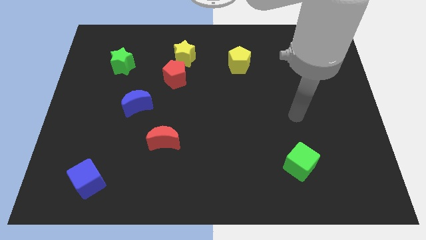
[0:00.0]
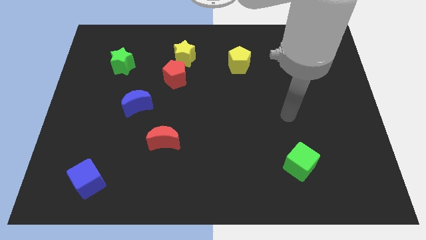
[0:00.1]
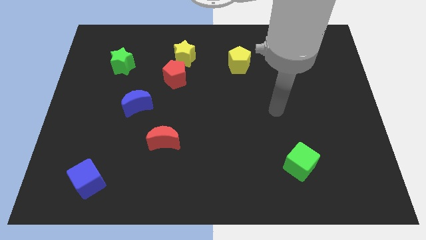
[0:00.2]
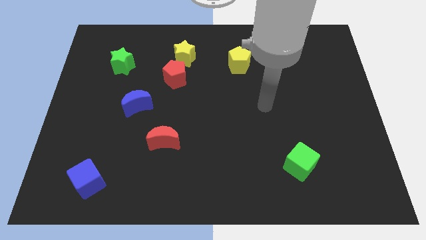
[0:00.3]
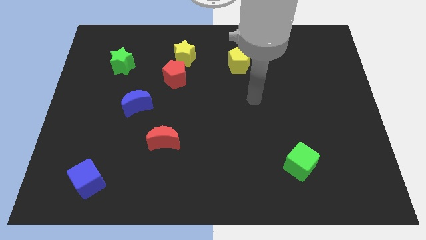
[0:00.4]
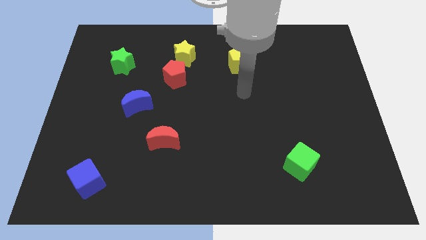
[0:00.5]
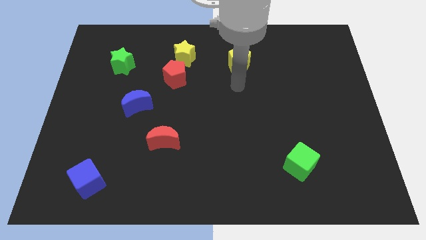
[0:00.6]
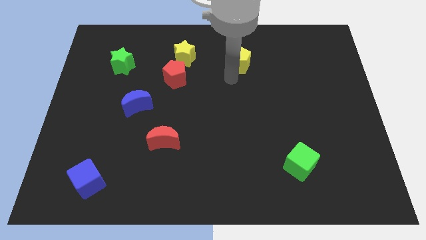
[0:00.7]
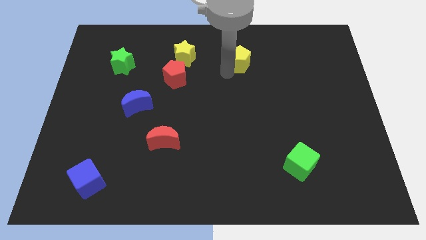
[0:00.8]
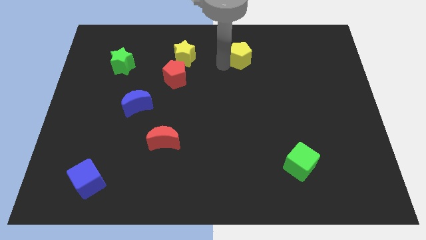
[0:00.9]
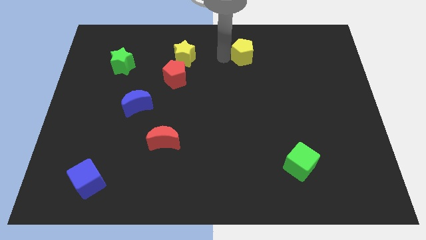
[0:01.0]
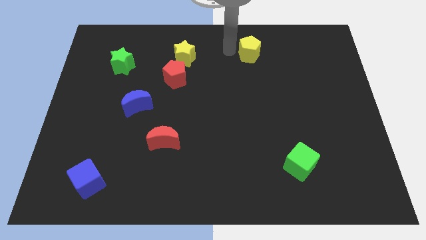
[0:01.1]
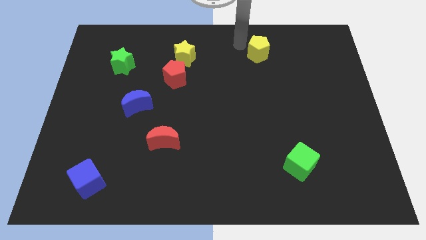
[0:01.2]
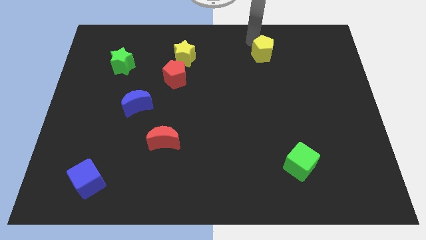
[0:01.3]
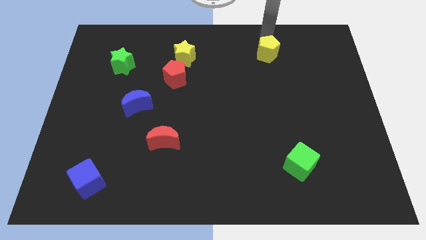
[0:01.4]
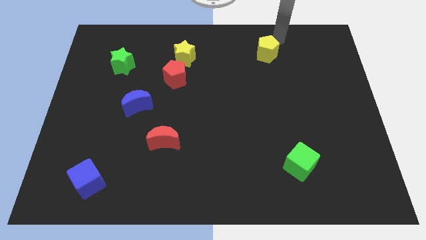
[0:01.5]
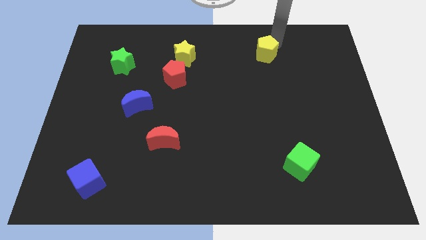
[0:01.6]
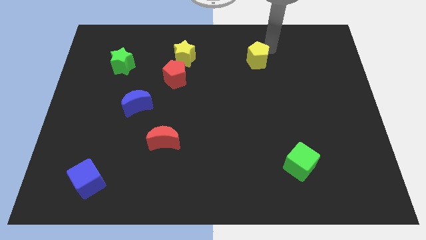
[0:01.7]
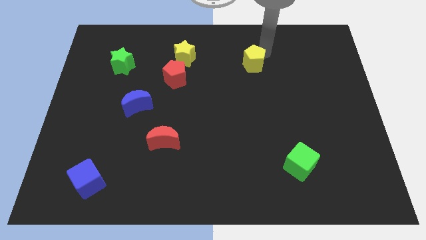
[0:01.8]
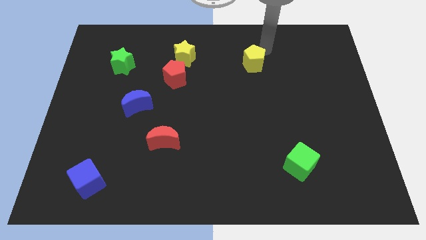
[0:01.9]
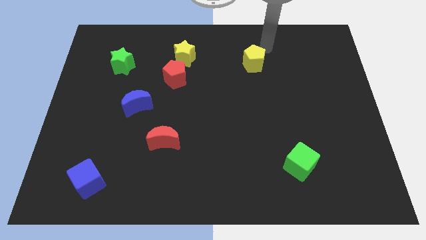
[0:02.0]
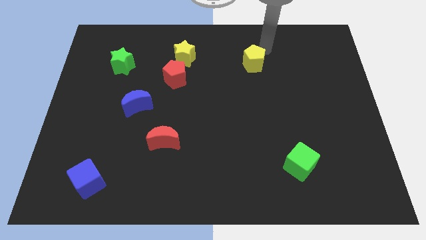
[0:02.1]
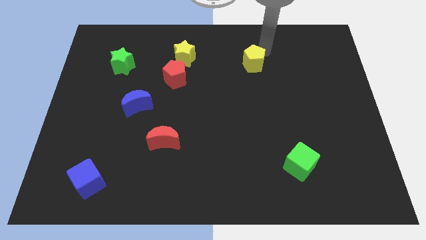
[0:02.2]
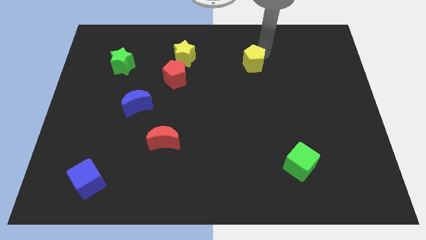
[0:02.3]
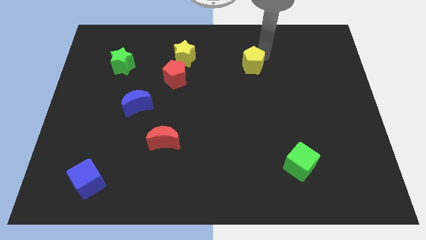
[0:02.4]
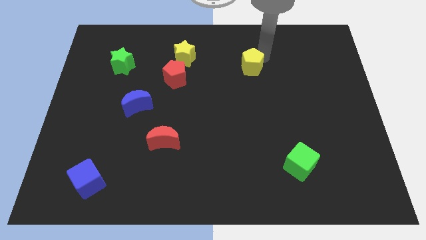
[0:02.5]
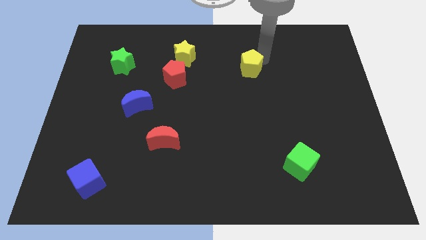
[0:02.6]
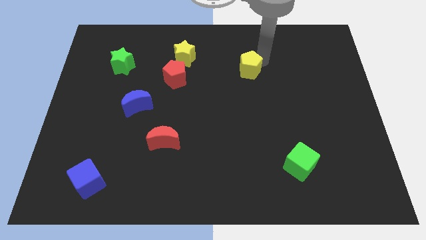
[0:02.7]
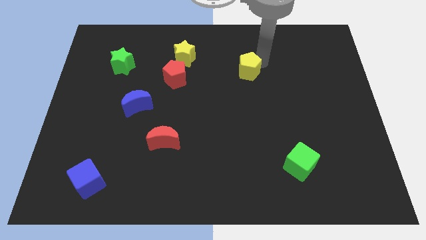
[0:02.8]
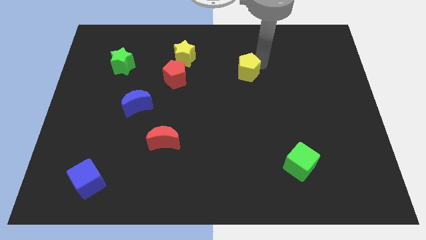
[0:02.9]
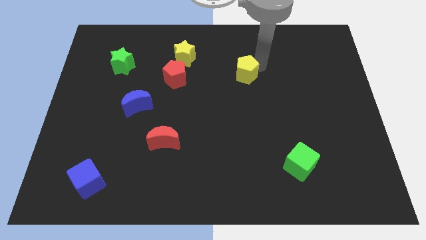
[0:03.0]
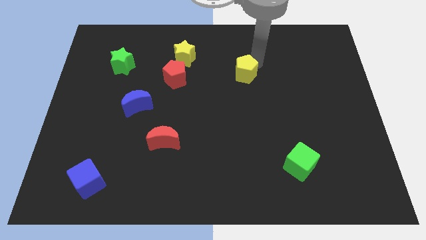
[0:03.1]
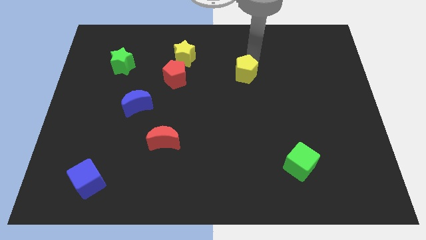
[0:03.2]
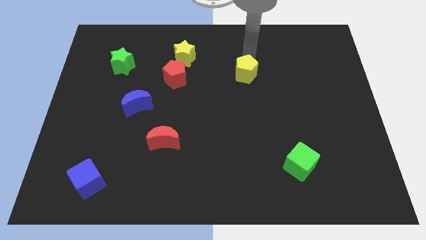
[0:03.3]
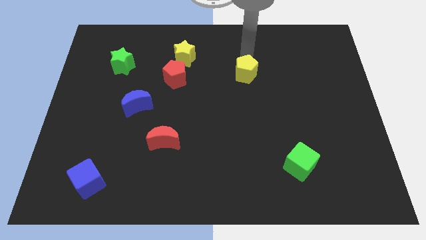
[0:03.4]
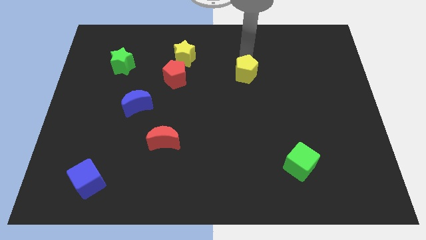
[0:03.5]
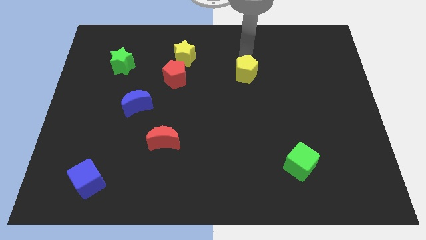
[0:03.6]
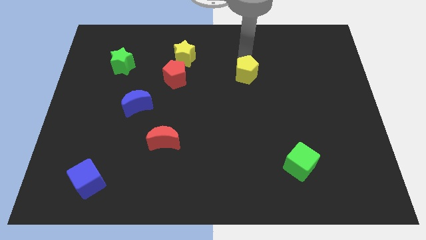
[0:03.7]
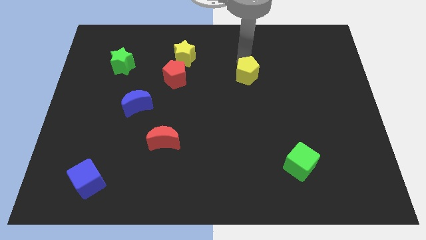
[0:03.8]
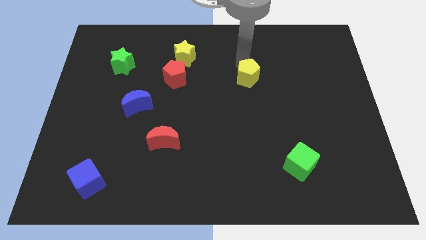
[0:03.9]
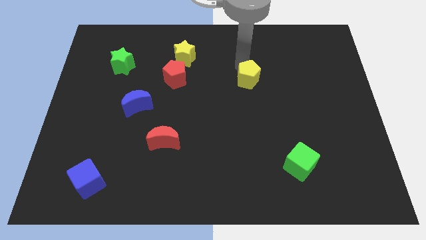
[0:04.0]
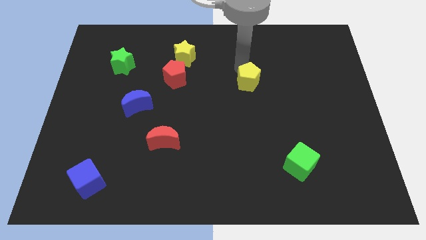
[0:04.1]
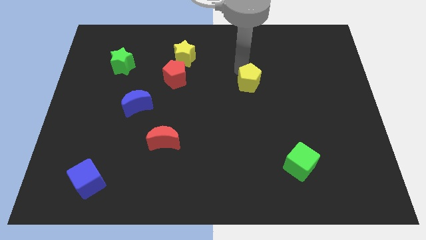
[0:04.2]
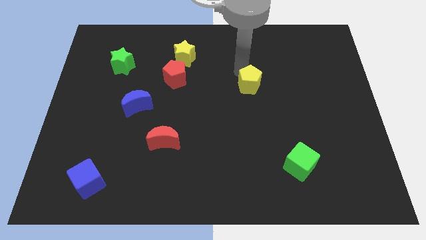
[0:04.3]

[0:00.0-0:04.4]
slightly push the yellow pentagon down

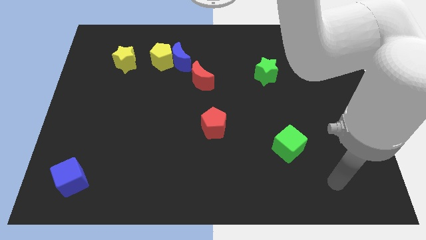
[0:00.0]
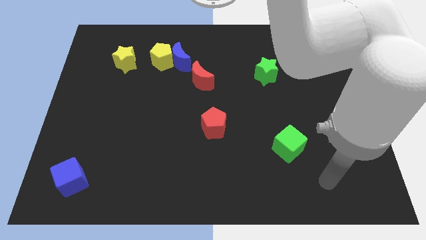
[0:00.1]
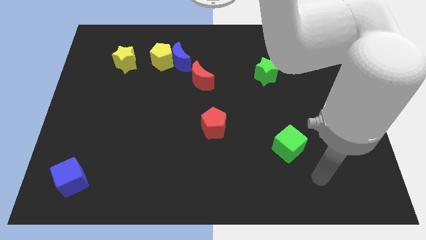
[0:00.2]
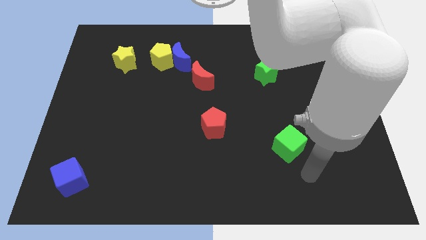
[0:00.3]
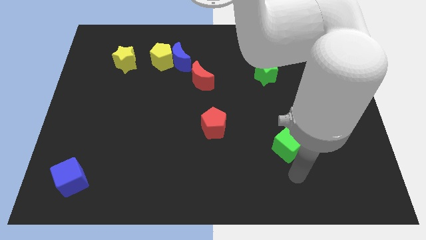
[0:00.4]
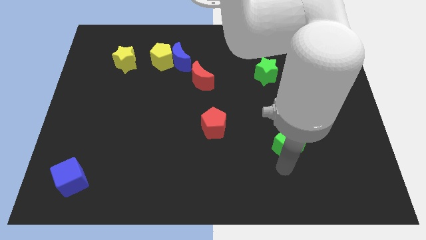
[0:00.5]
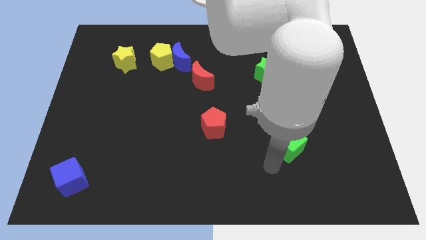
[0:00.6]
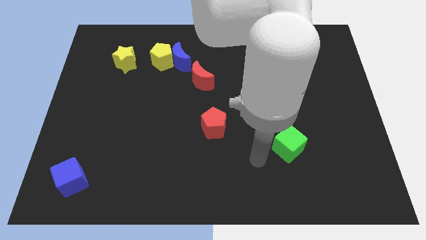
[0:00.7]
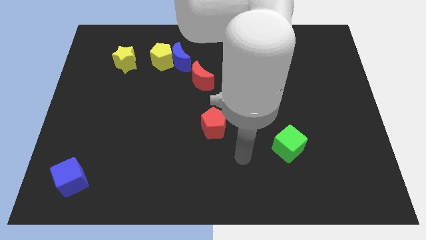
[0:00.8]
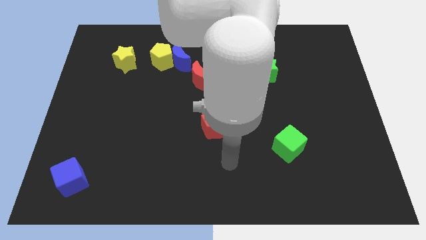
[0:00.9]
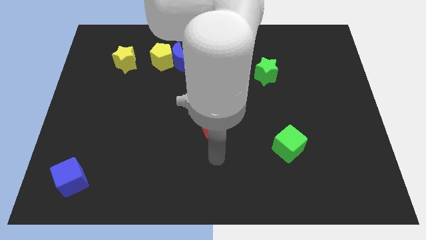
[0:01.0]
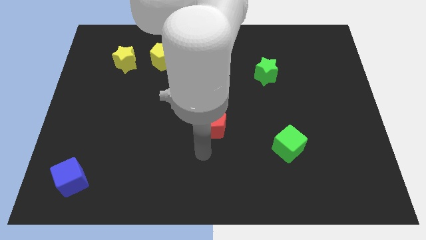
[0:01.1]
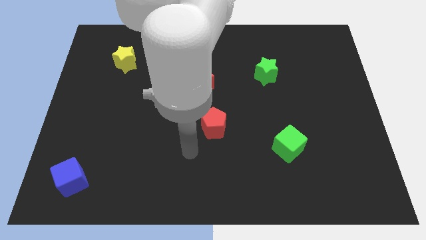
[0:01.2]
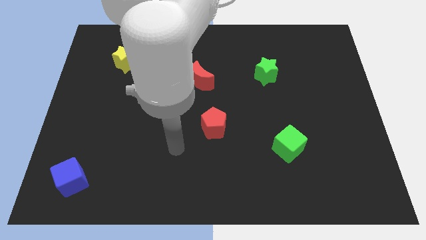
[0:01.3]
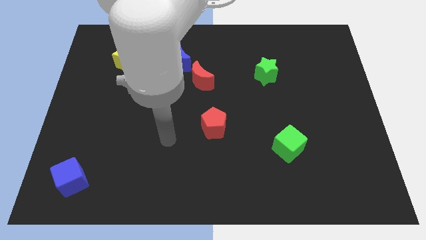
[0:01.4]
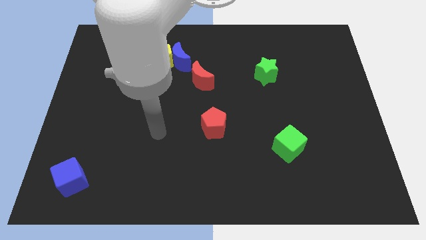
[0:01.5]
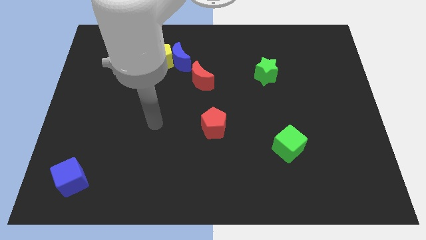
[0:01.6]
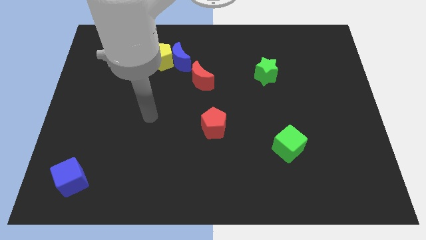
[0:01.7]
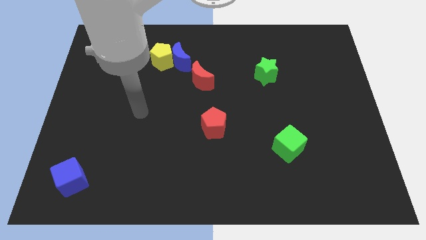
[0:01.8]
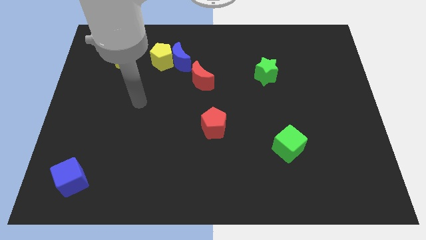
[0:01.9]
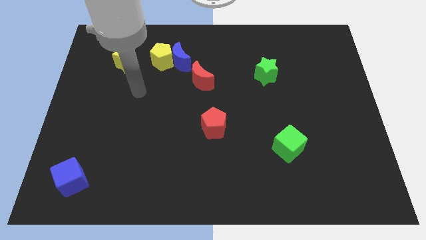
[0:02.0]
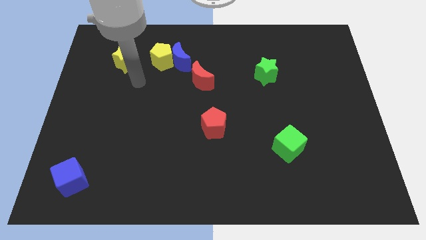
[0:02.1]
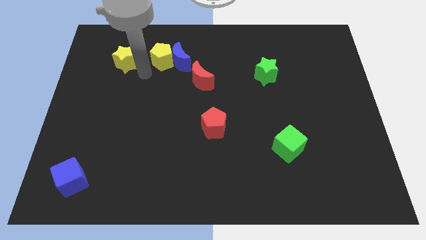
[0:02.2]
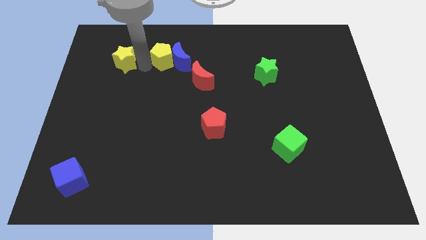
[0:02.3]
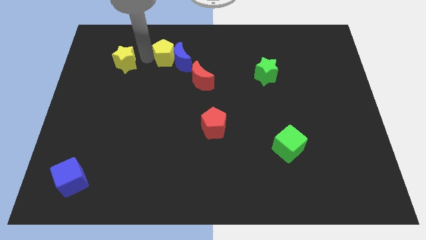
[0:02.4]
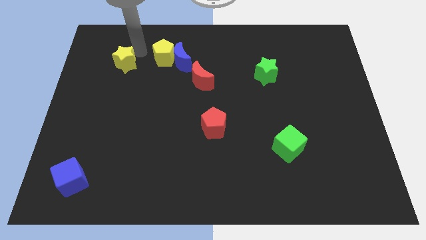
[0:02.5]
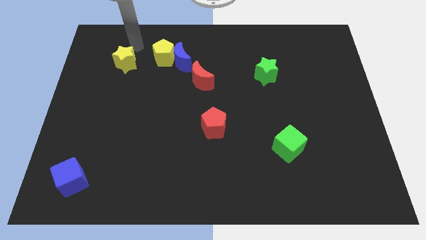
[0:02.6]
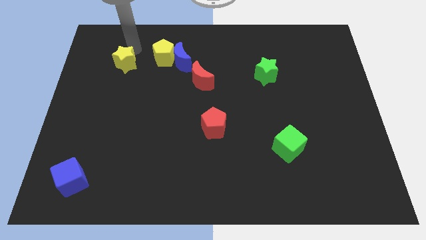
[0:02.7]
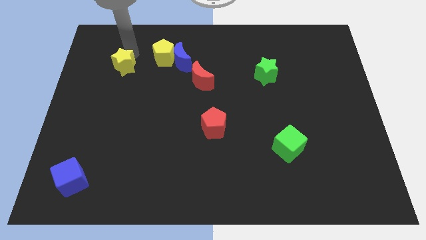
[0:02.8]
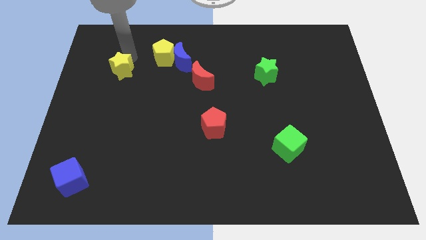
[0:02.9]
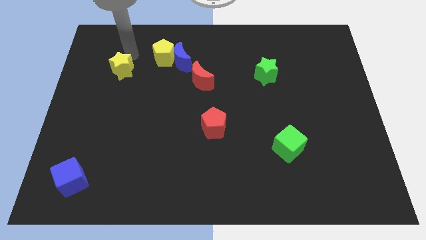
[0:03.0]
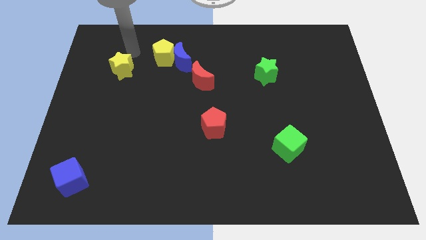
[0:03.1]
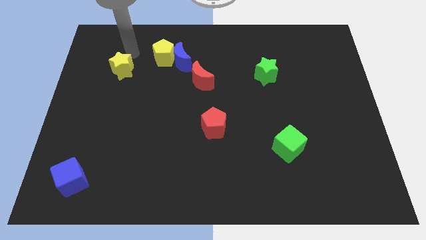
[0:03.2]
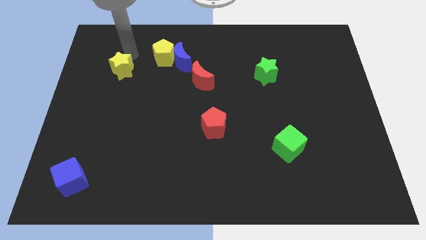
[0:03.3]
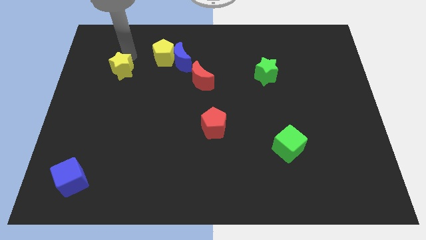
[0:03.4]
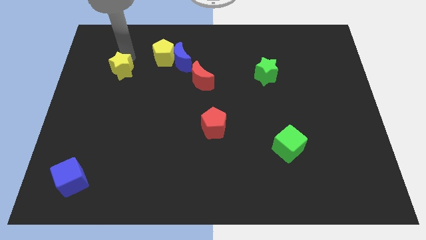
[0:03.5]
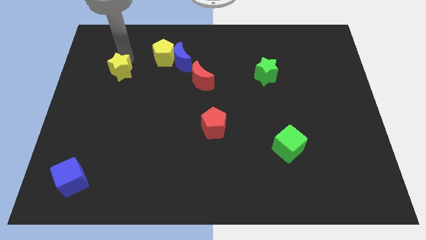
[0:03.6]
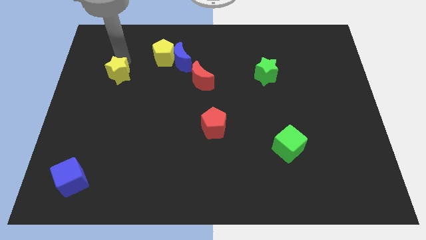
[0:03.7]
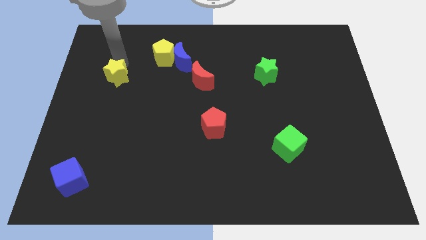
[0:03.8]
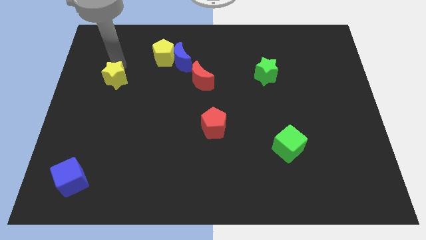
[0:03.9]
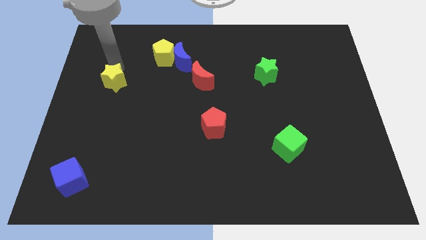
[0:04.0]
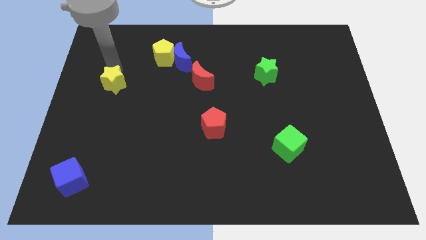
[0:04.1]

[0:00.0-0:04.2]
slightly move the yellow star downwards
